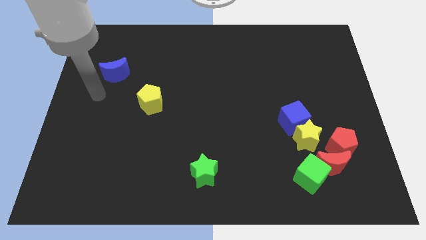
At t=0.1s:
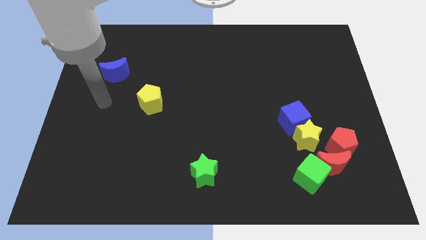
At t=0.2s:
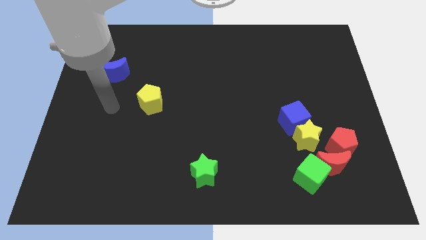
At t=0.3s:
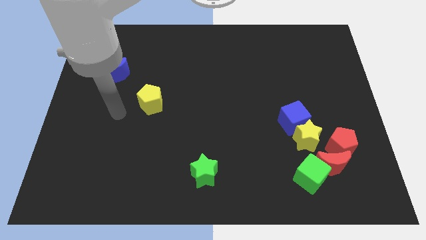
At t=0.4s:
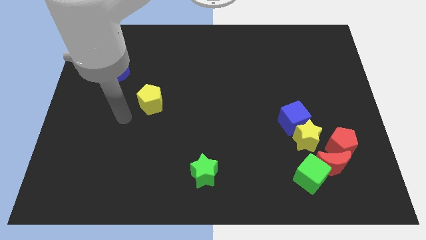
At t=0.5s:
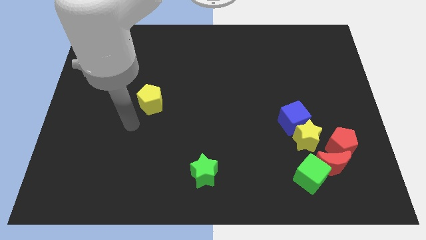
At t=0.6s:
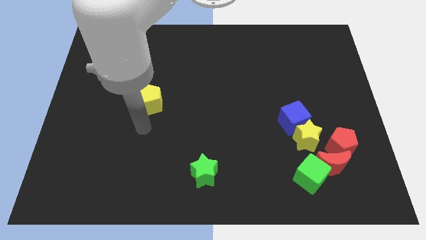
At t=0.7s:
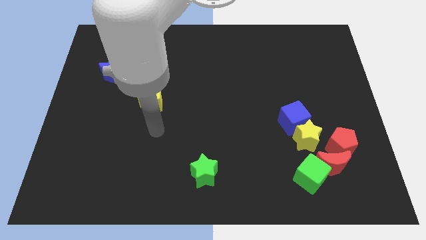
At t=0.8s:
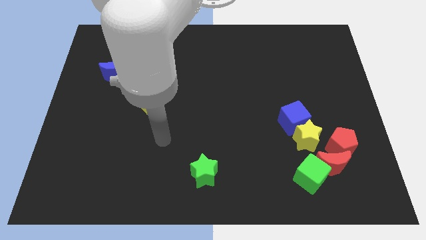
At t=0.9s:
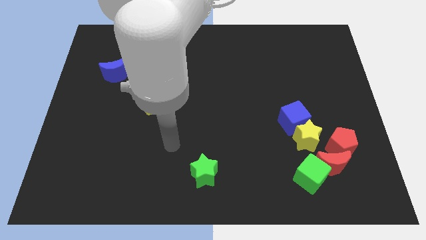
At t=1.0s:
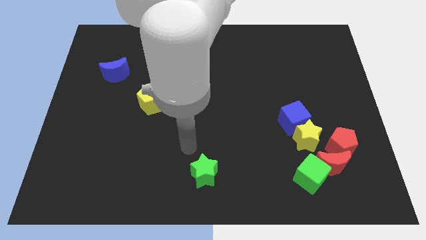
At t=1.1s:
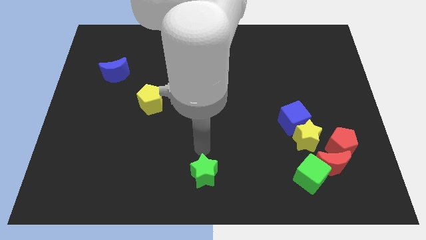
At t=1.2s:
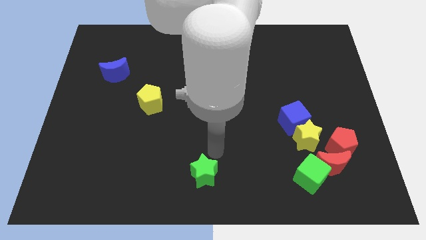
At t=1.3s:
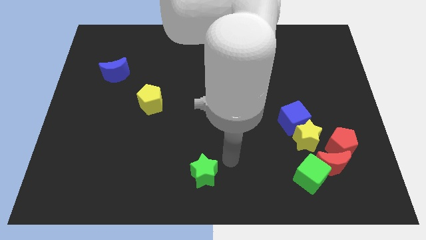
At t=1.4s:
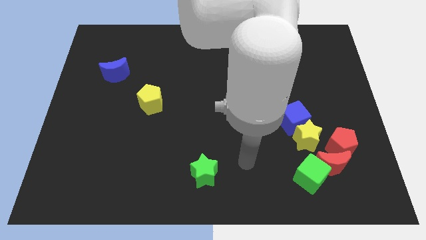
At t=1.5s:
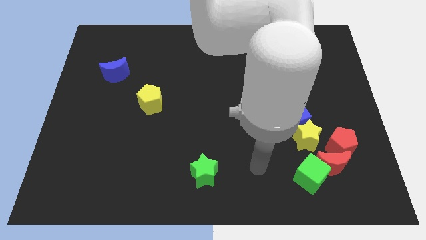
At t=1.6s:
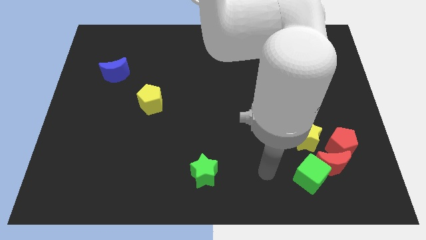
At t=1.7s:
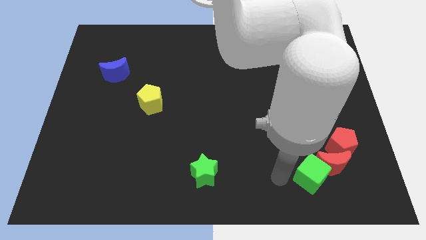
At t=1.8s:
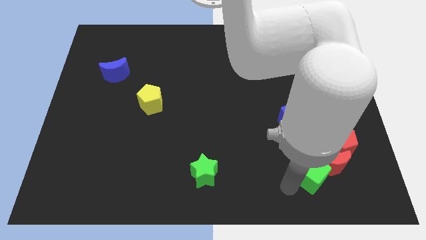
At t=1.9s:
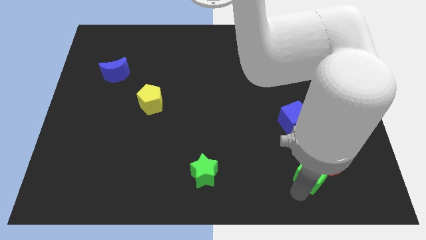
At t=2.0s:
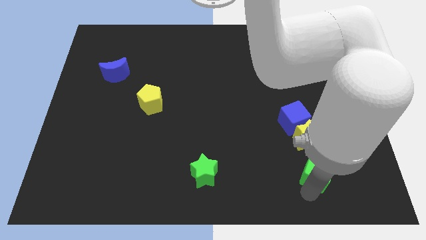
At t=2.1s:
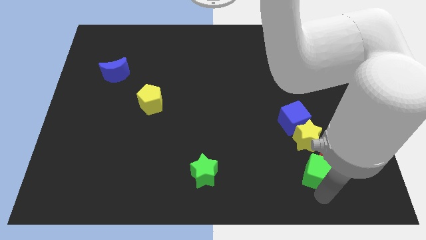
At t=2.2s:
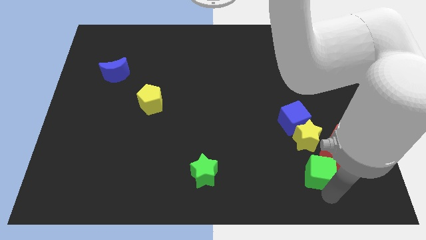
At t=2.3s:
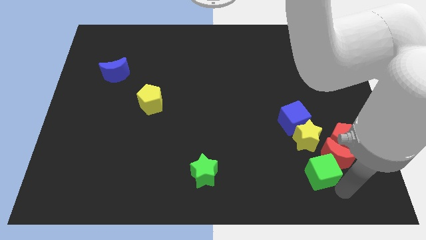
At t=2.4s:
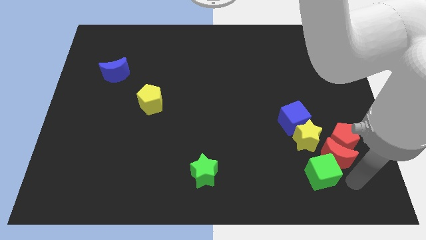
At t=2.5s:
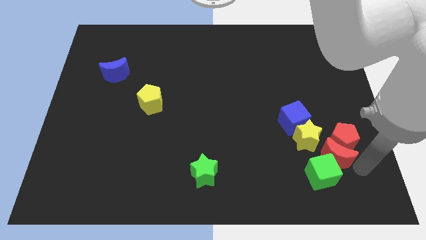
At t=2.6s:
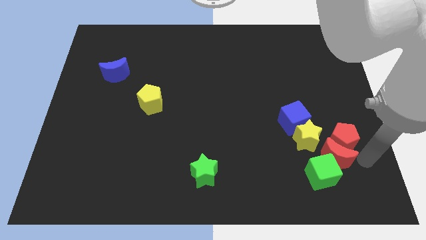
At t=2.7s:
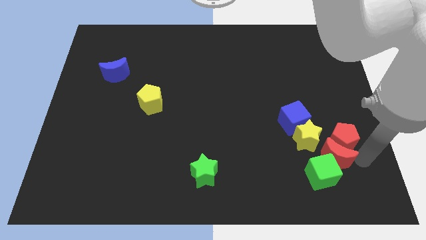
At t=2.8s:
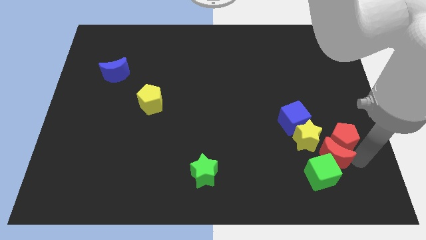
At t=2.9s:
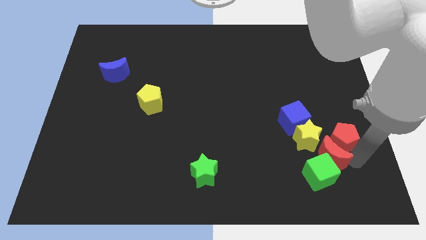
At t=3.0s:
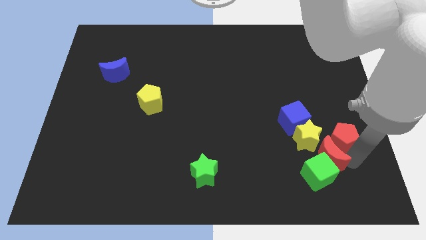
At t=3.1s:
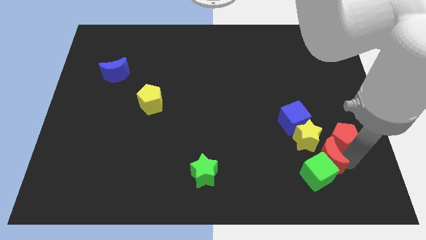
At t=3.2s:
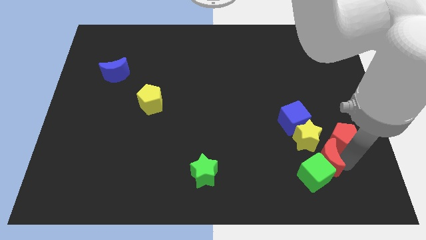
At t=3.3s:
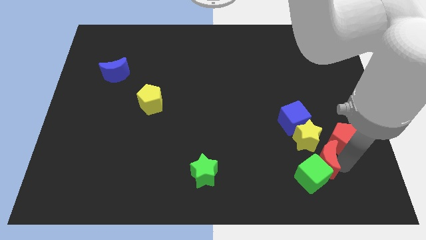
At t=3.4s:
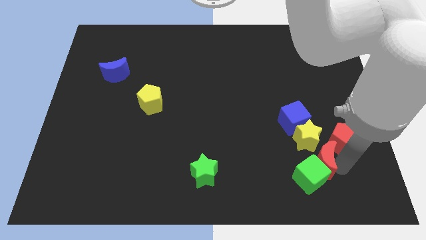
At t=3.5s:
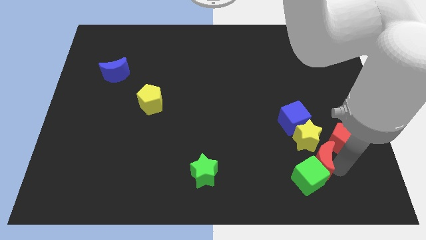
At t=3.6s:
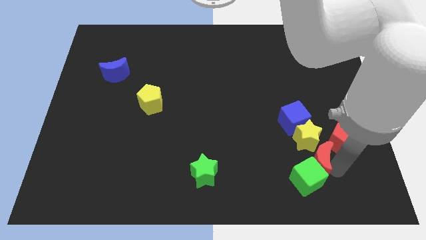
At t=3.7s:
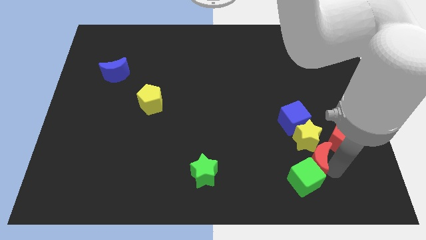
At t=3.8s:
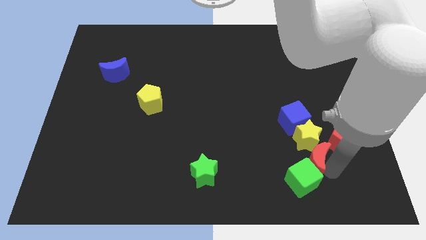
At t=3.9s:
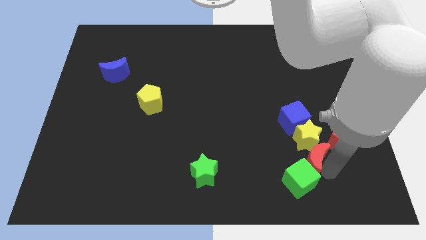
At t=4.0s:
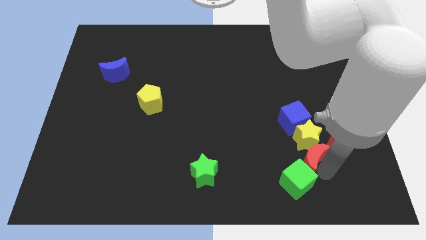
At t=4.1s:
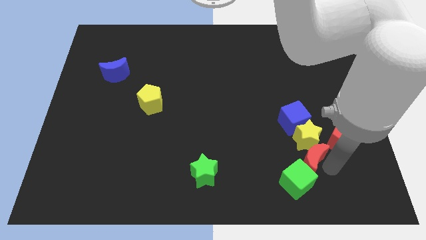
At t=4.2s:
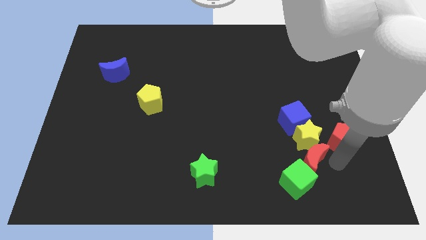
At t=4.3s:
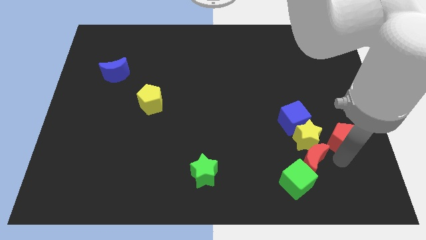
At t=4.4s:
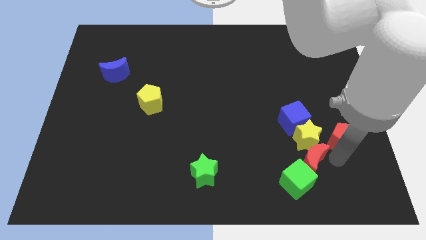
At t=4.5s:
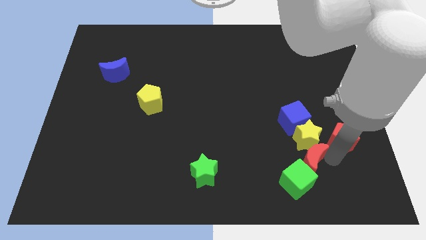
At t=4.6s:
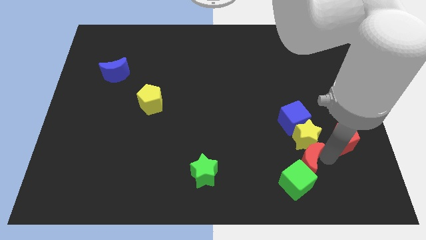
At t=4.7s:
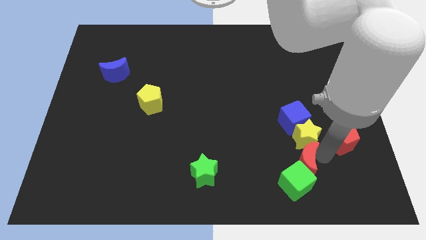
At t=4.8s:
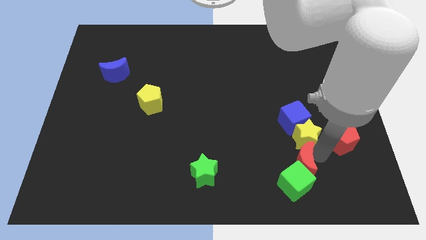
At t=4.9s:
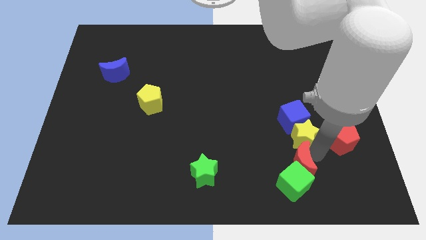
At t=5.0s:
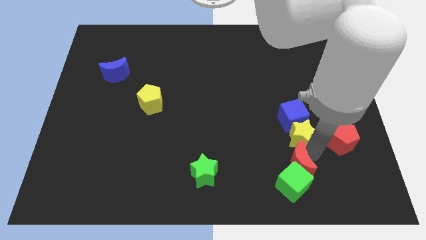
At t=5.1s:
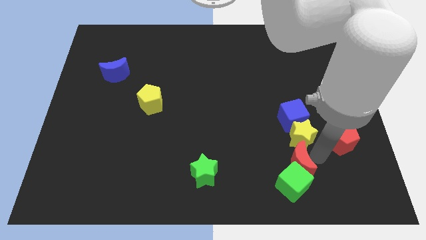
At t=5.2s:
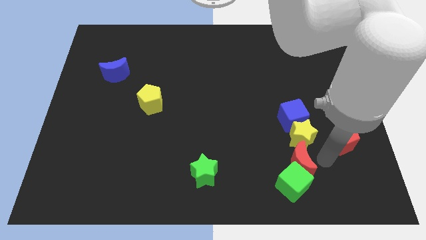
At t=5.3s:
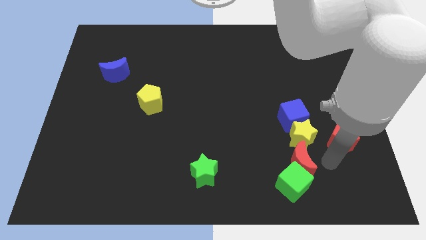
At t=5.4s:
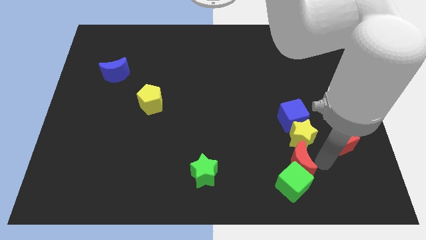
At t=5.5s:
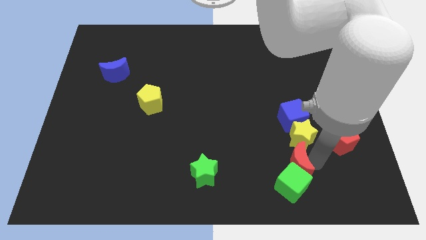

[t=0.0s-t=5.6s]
slide the red moon a little bit left

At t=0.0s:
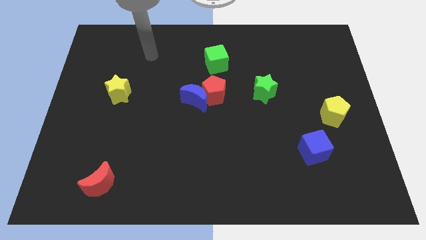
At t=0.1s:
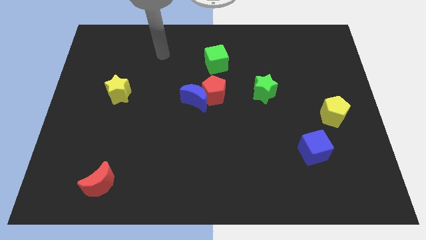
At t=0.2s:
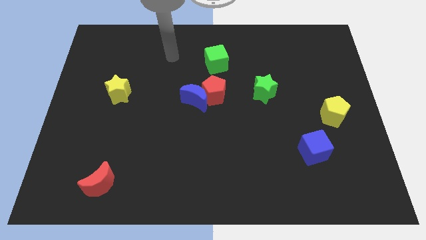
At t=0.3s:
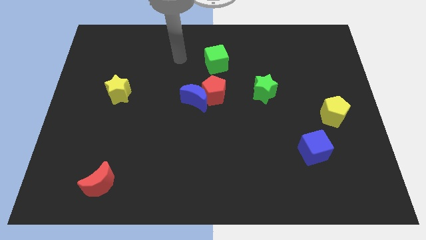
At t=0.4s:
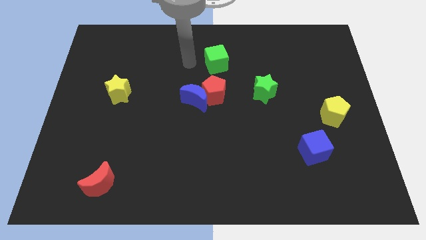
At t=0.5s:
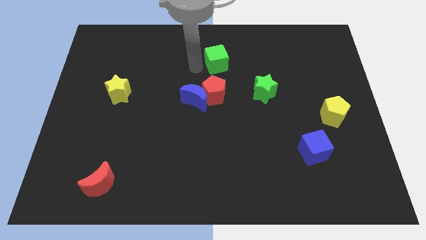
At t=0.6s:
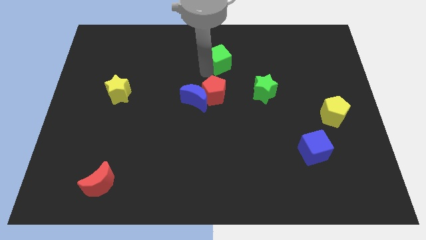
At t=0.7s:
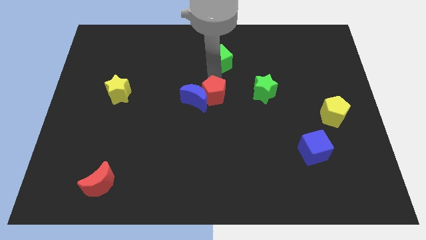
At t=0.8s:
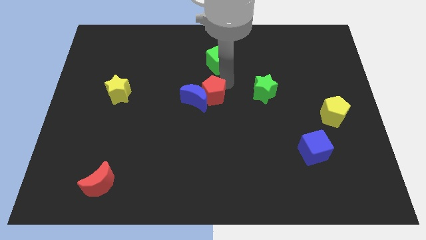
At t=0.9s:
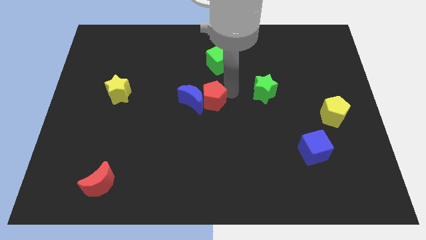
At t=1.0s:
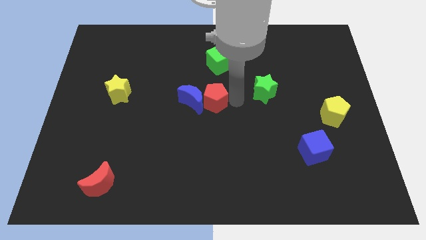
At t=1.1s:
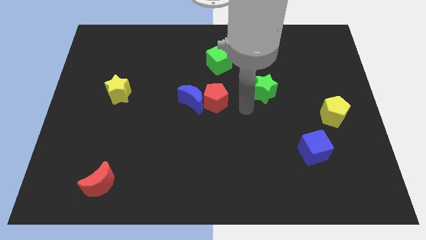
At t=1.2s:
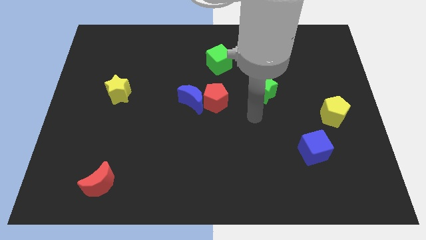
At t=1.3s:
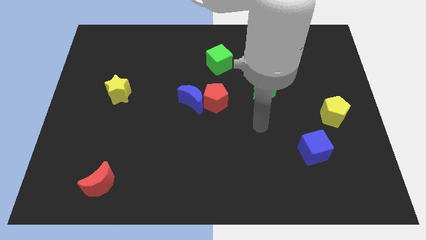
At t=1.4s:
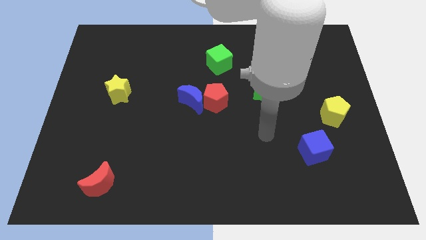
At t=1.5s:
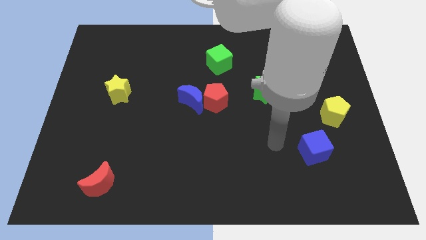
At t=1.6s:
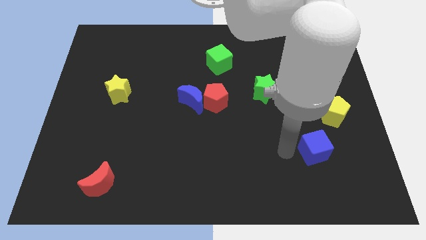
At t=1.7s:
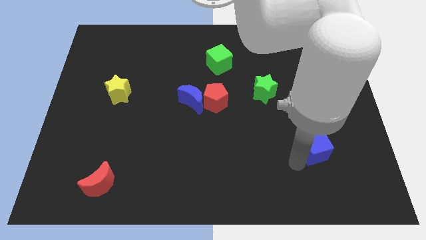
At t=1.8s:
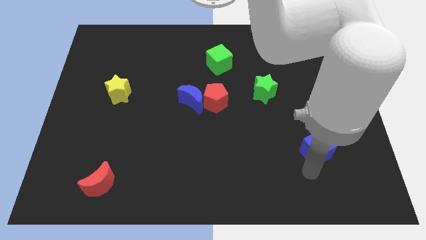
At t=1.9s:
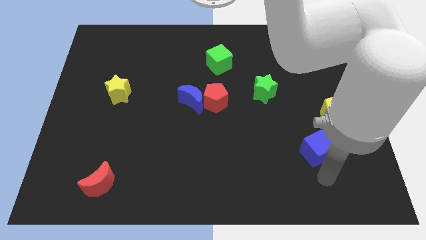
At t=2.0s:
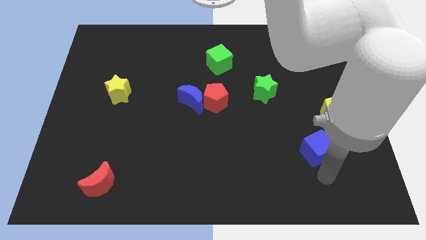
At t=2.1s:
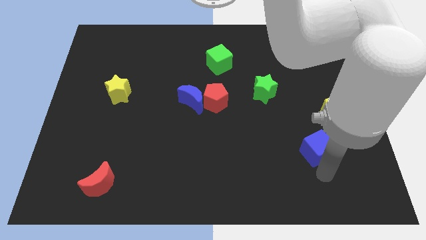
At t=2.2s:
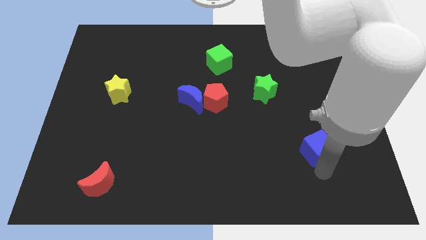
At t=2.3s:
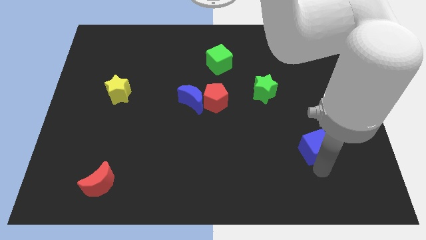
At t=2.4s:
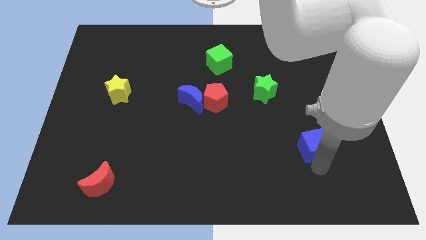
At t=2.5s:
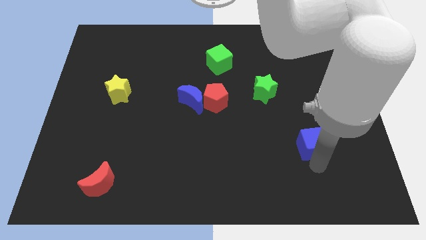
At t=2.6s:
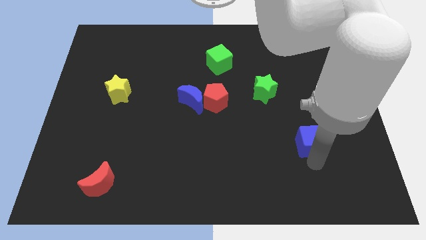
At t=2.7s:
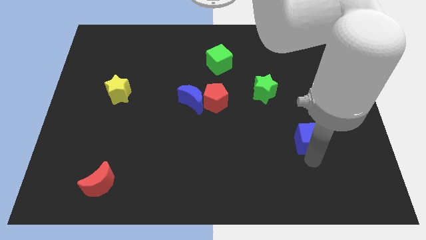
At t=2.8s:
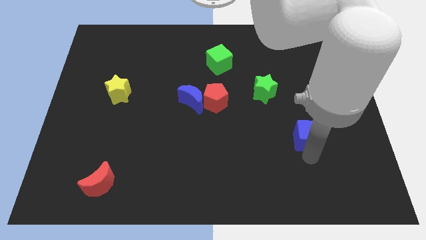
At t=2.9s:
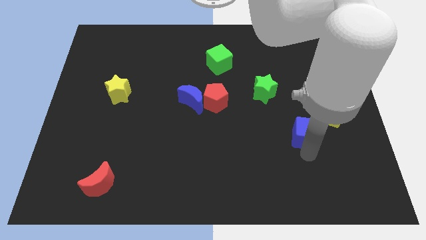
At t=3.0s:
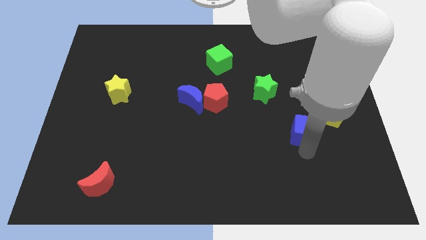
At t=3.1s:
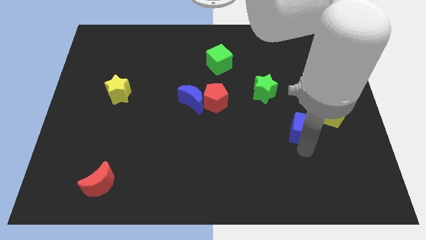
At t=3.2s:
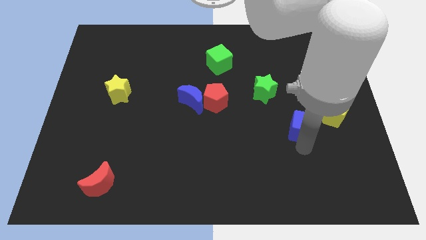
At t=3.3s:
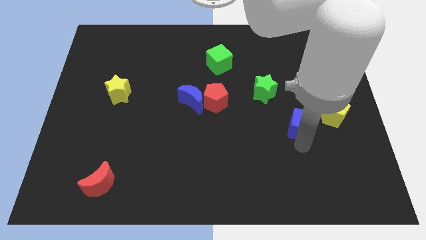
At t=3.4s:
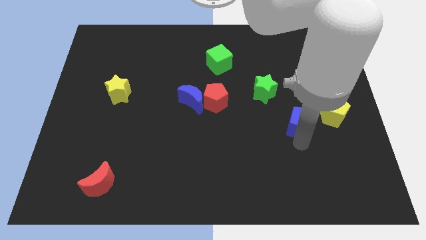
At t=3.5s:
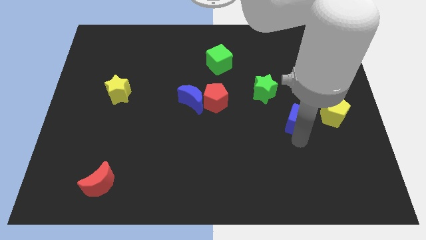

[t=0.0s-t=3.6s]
move the blue cube upwards a bit
